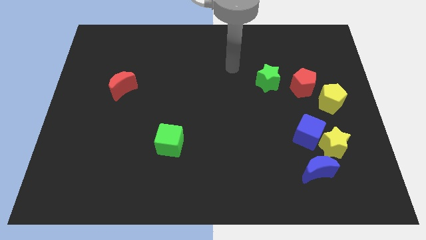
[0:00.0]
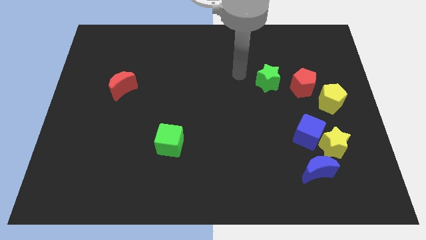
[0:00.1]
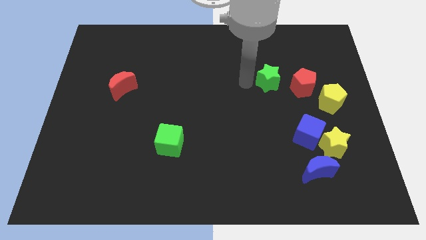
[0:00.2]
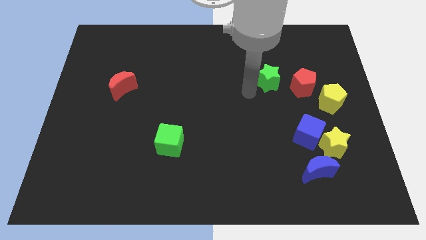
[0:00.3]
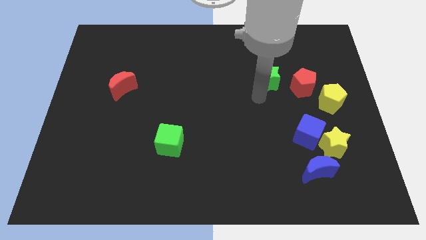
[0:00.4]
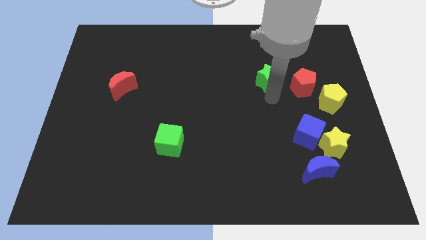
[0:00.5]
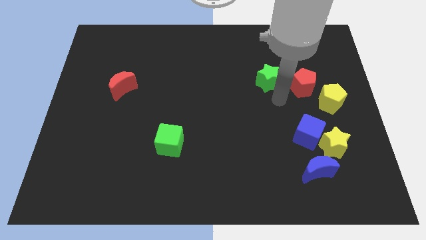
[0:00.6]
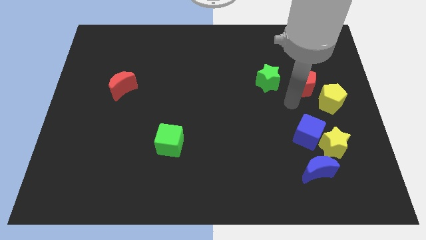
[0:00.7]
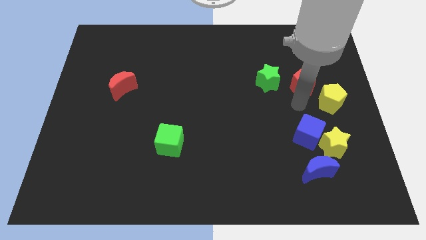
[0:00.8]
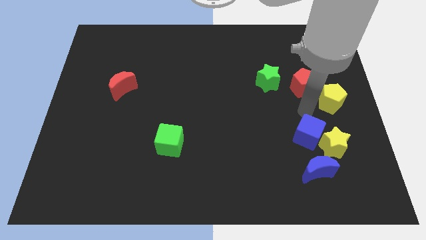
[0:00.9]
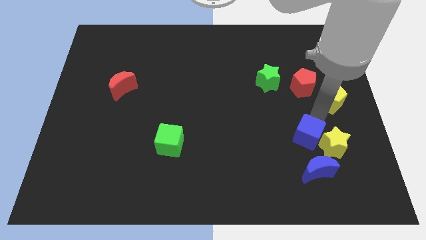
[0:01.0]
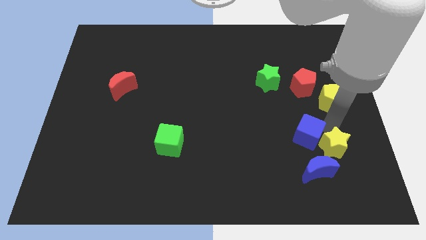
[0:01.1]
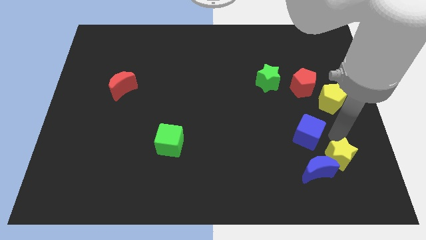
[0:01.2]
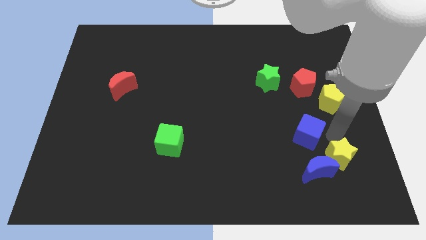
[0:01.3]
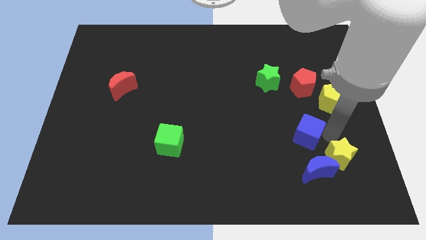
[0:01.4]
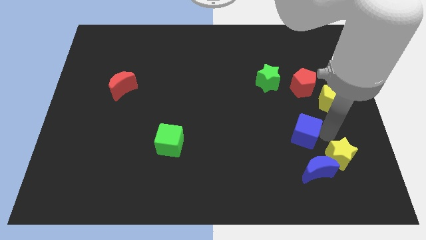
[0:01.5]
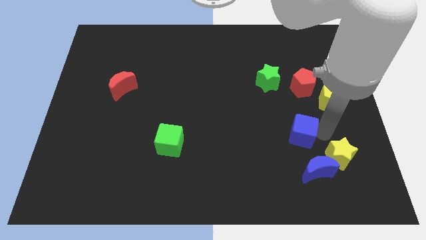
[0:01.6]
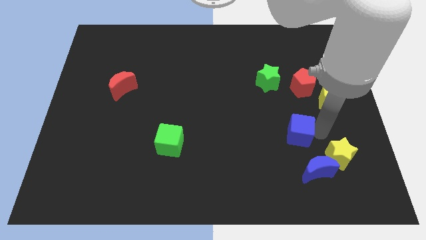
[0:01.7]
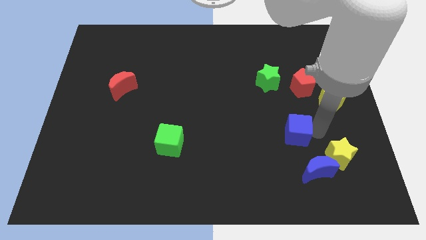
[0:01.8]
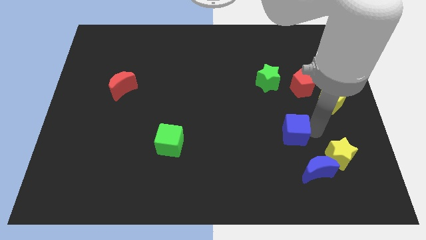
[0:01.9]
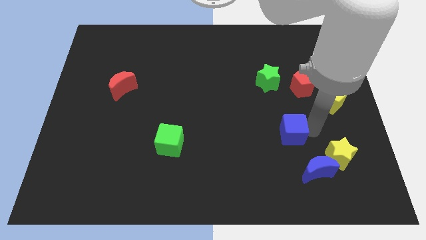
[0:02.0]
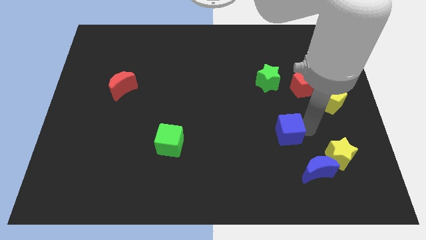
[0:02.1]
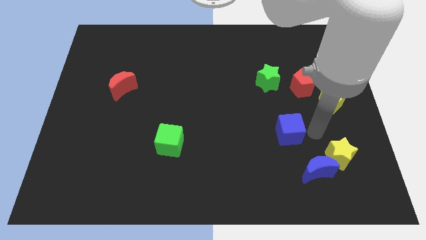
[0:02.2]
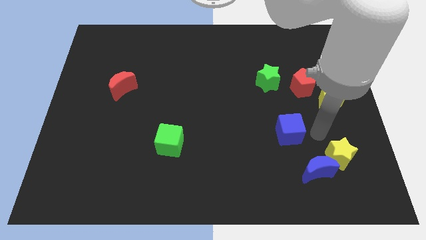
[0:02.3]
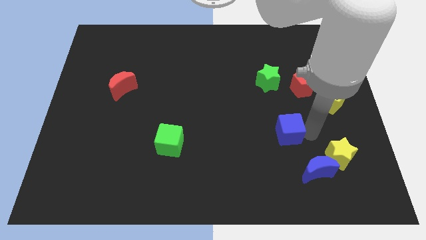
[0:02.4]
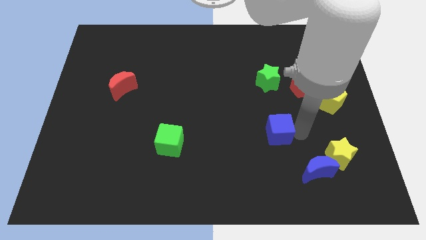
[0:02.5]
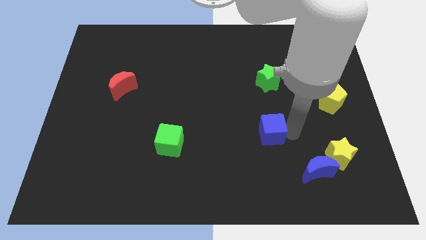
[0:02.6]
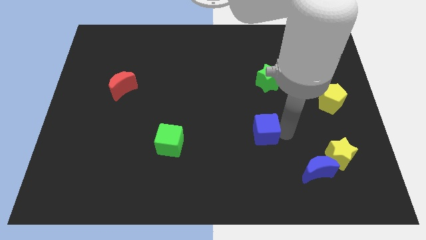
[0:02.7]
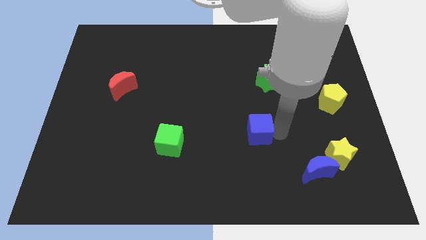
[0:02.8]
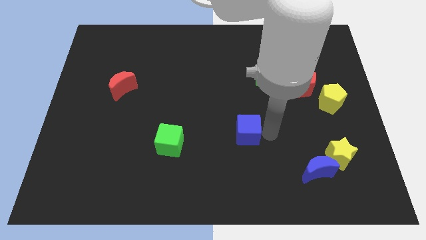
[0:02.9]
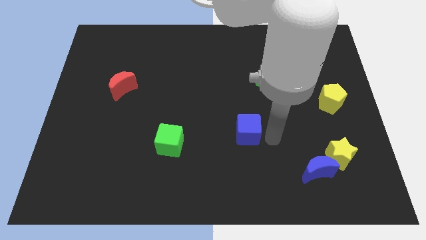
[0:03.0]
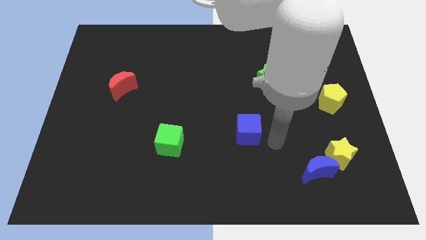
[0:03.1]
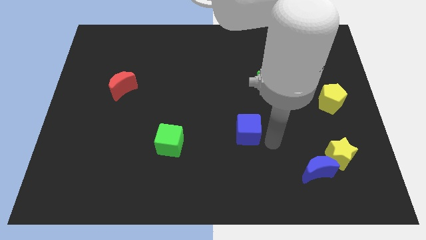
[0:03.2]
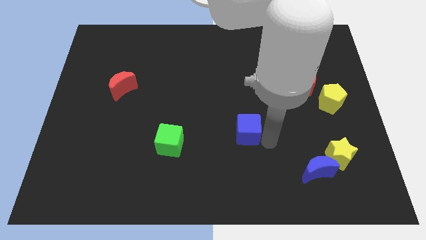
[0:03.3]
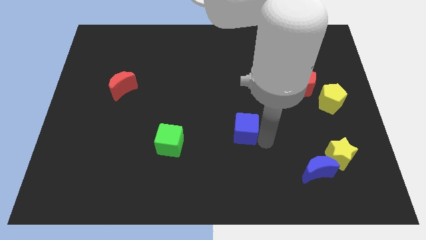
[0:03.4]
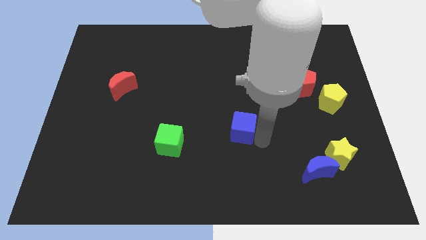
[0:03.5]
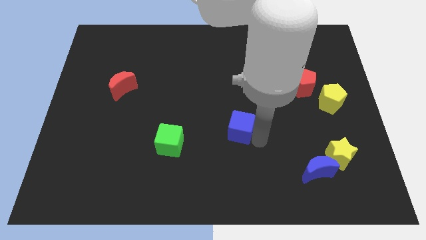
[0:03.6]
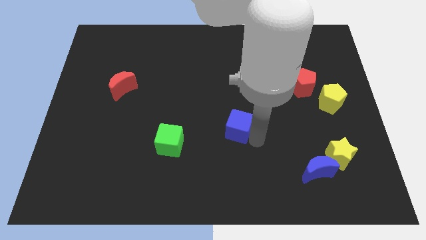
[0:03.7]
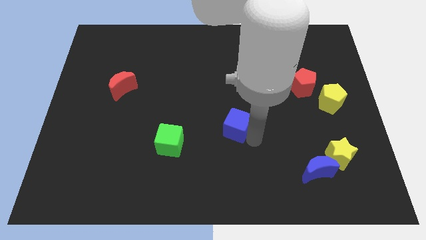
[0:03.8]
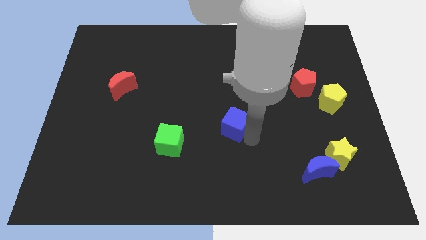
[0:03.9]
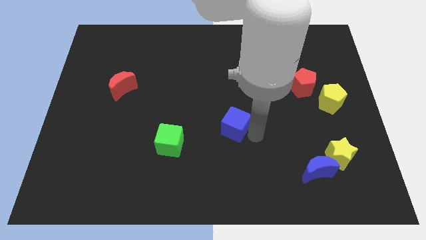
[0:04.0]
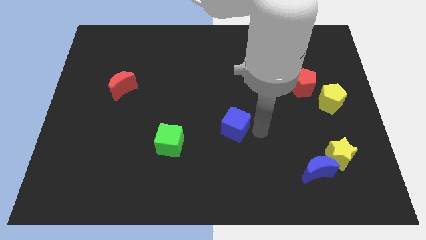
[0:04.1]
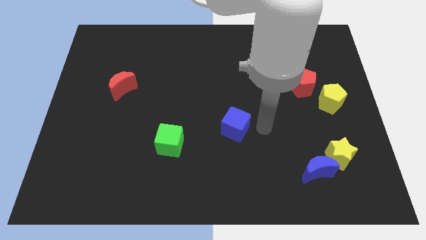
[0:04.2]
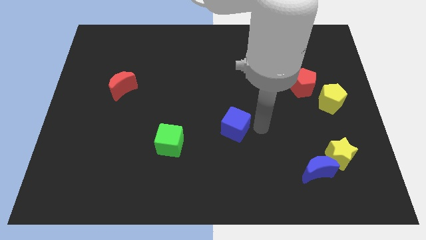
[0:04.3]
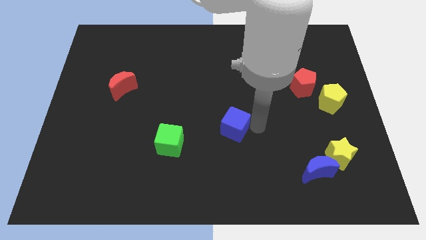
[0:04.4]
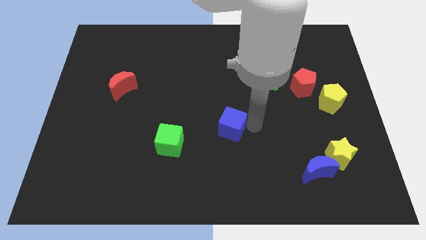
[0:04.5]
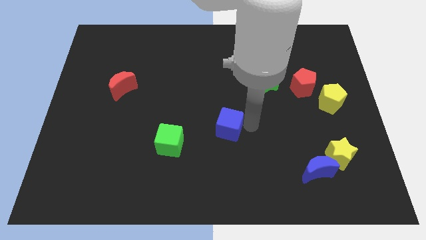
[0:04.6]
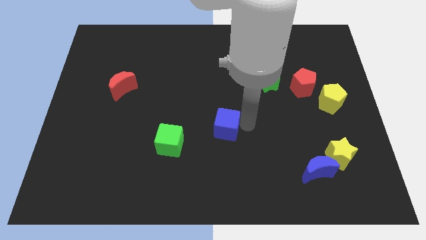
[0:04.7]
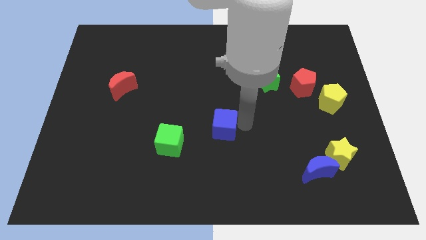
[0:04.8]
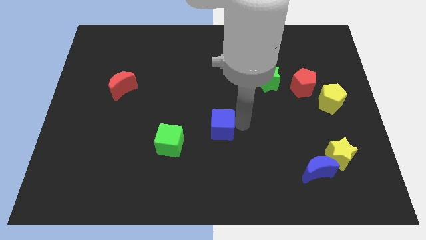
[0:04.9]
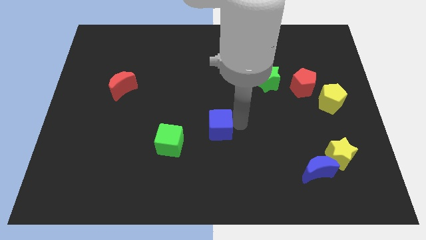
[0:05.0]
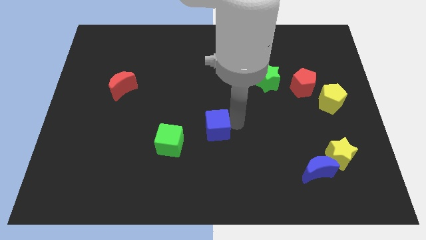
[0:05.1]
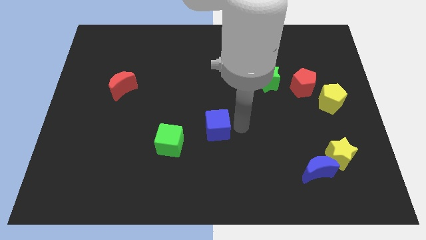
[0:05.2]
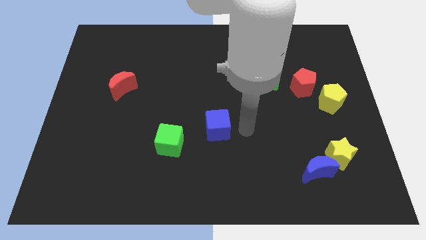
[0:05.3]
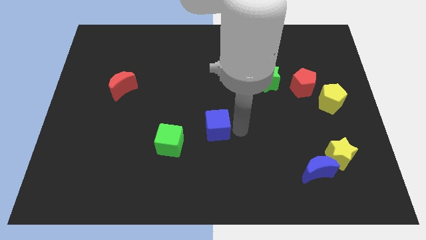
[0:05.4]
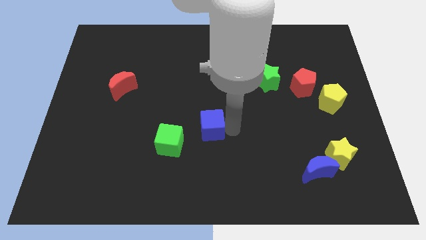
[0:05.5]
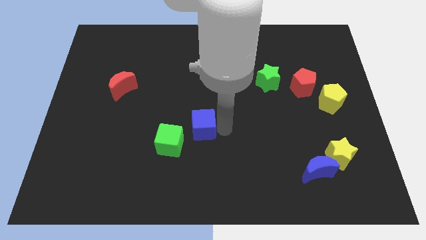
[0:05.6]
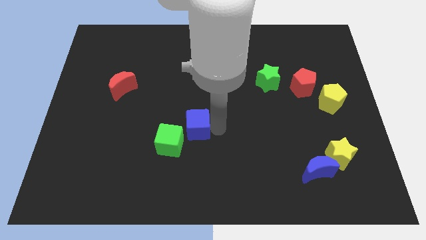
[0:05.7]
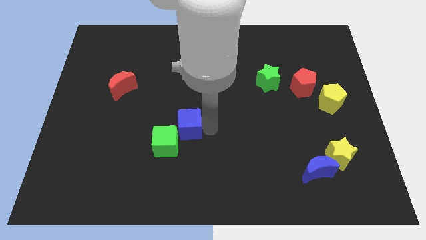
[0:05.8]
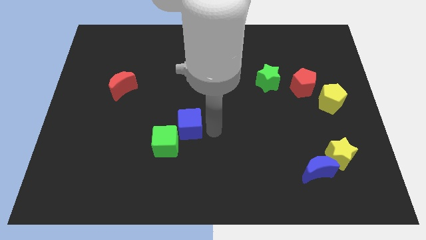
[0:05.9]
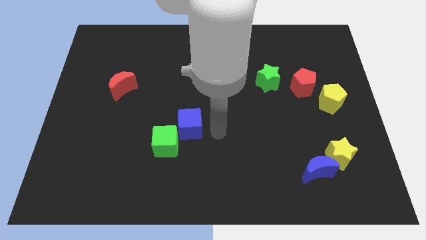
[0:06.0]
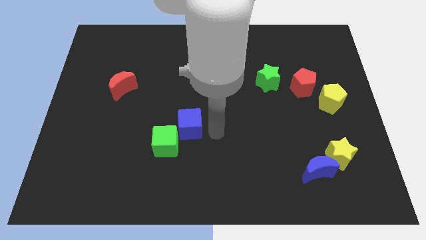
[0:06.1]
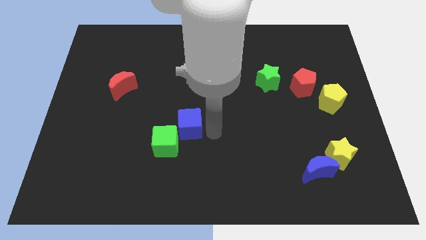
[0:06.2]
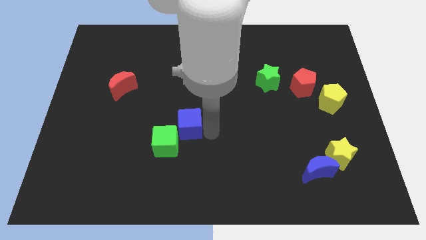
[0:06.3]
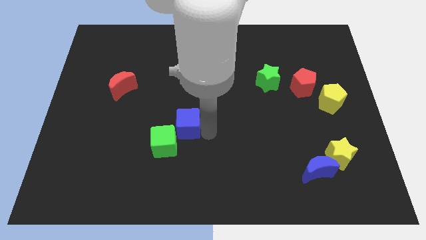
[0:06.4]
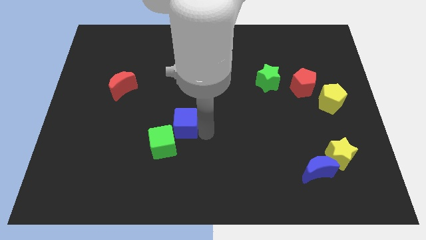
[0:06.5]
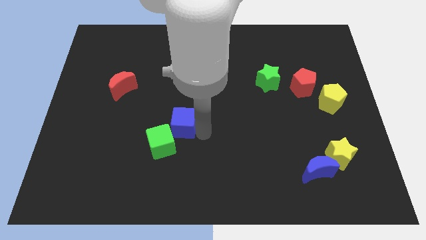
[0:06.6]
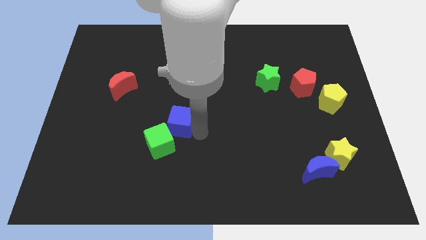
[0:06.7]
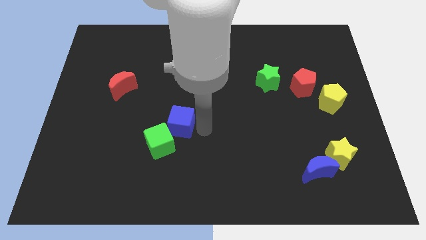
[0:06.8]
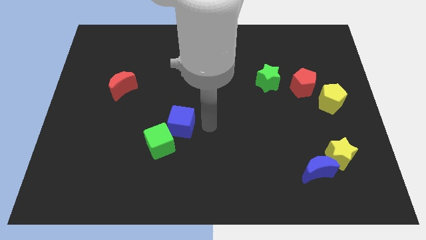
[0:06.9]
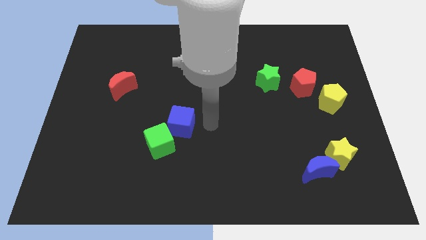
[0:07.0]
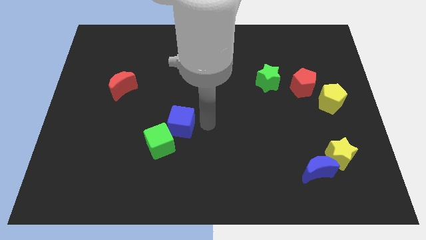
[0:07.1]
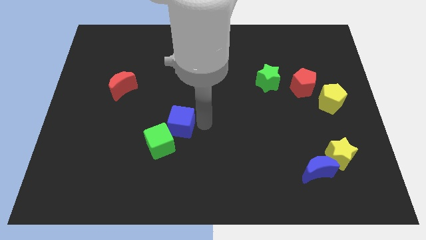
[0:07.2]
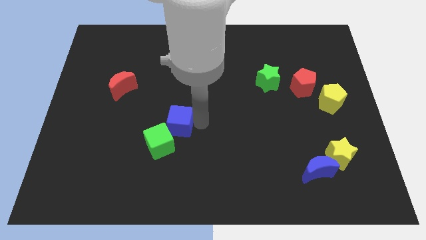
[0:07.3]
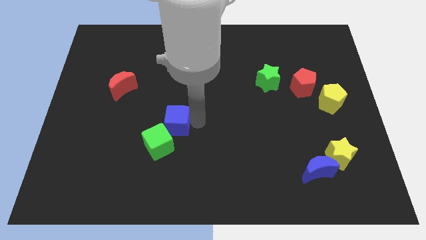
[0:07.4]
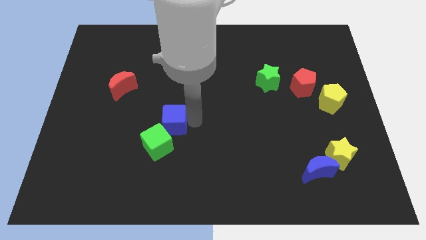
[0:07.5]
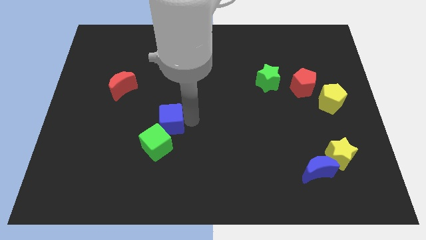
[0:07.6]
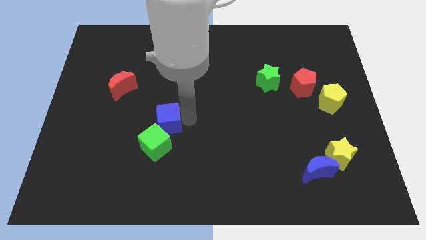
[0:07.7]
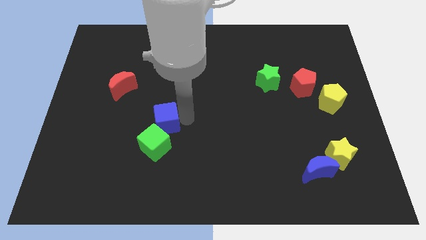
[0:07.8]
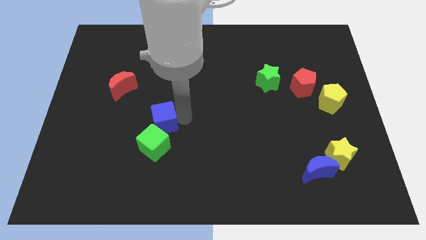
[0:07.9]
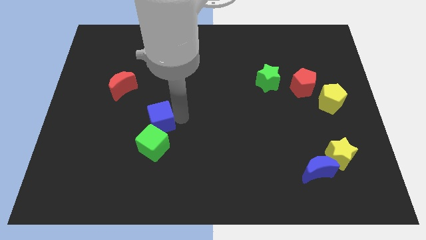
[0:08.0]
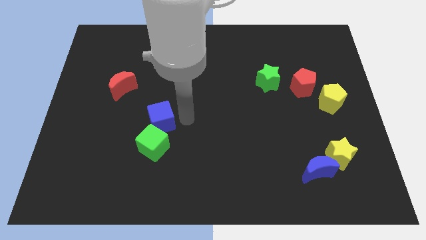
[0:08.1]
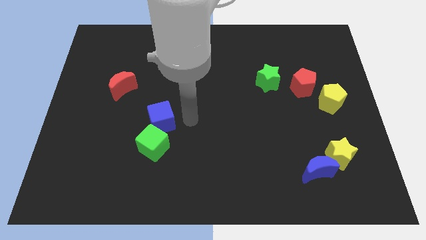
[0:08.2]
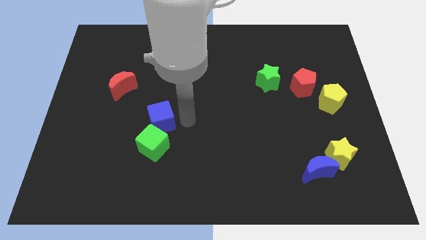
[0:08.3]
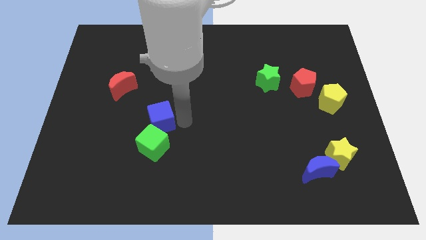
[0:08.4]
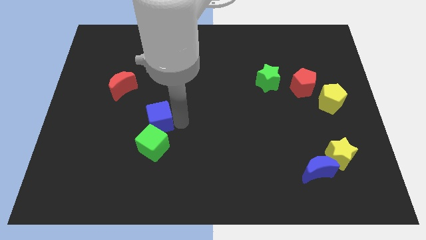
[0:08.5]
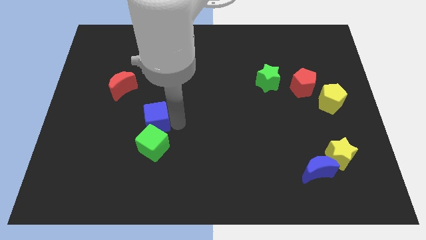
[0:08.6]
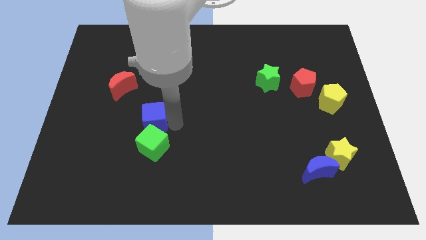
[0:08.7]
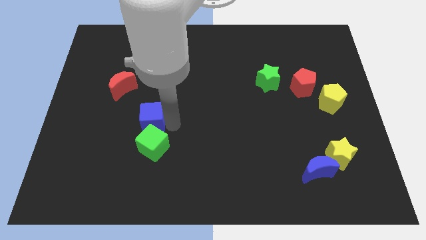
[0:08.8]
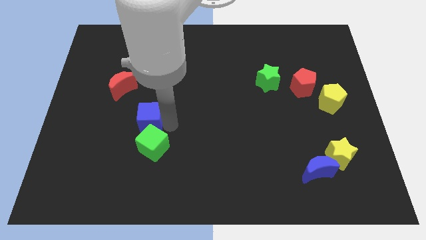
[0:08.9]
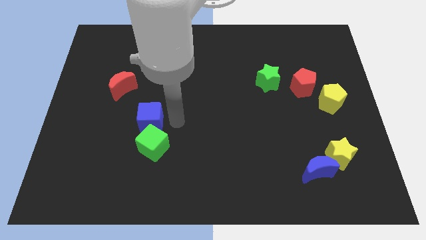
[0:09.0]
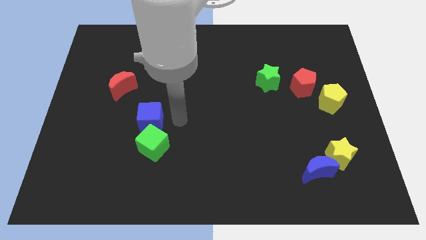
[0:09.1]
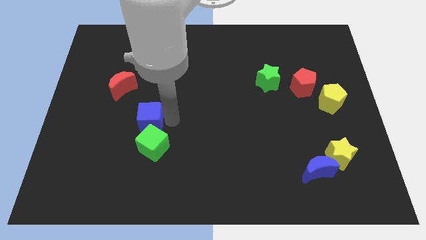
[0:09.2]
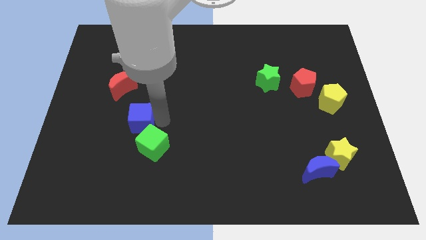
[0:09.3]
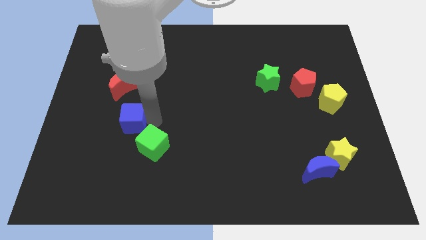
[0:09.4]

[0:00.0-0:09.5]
put the blue cube to the bottom side of the red moon
